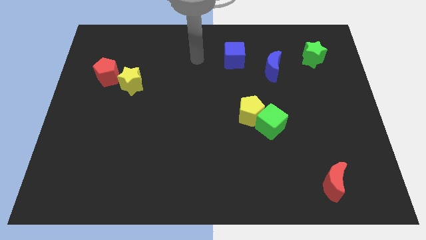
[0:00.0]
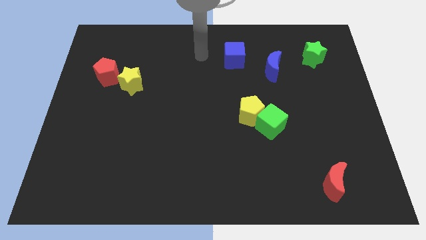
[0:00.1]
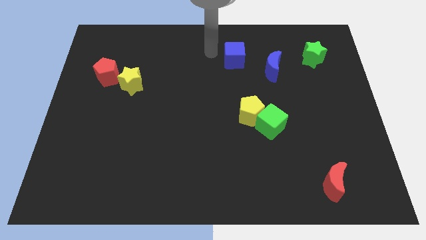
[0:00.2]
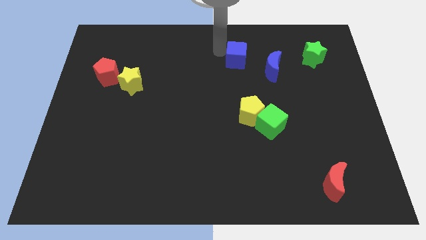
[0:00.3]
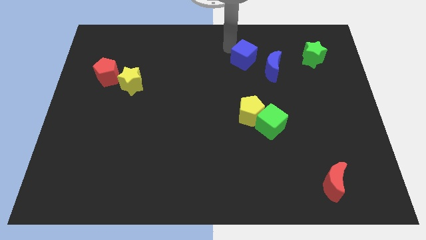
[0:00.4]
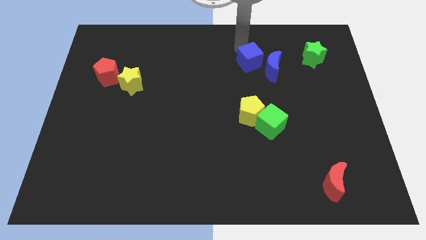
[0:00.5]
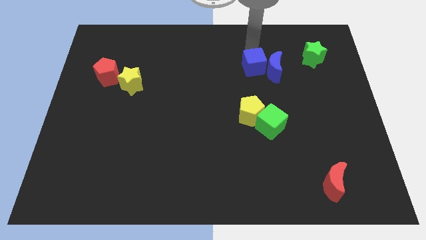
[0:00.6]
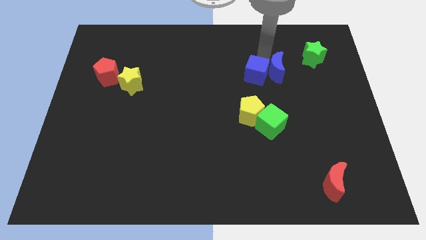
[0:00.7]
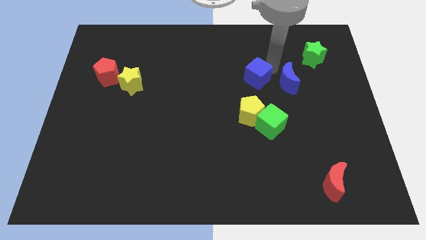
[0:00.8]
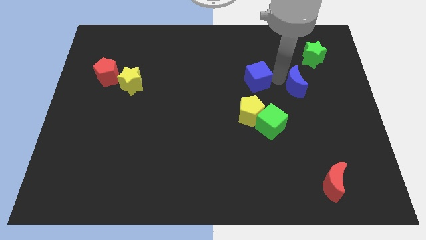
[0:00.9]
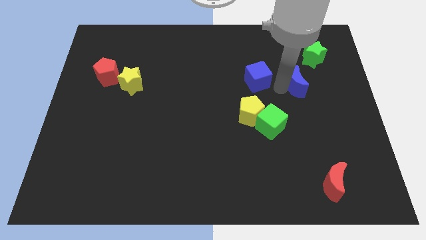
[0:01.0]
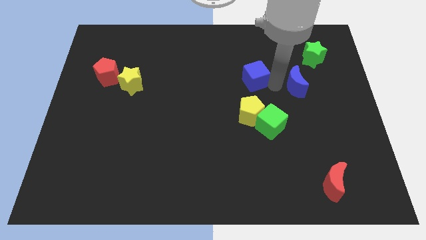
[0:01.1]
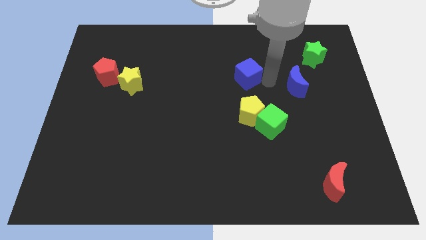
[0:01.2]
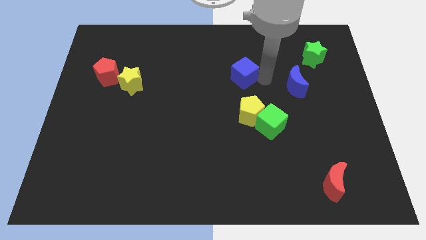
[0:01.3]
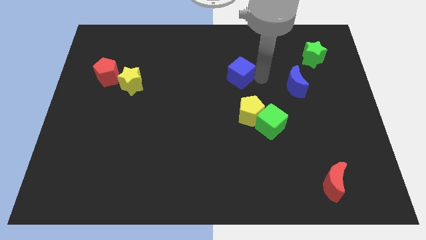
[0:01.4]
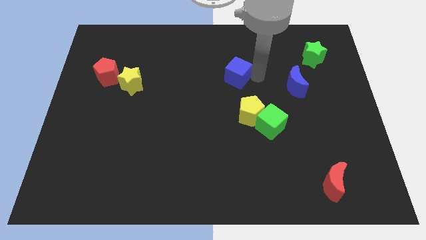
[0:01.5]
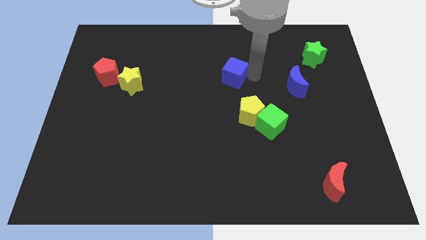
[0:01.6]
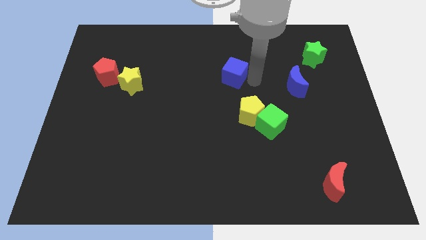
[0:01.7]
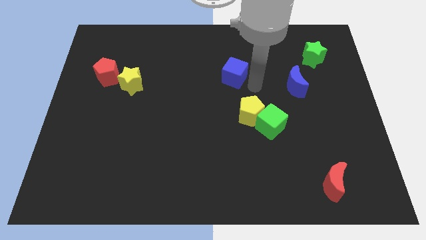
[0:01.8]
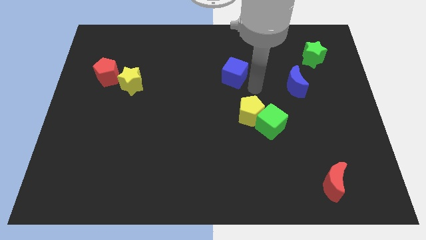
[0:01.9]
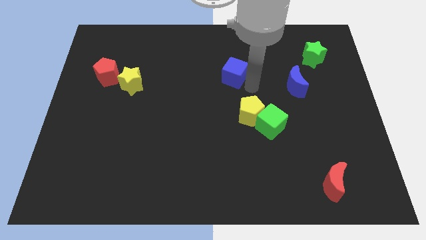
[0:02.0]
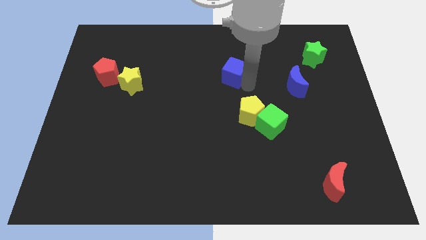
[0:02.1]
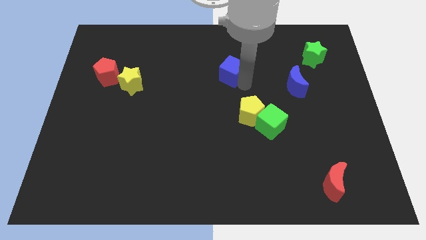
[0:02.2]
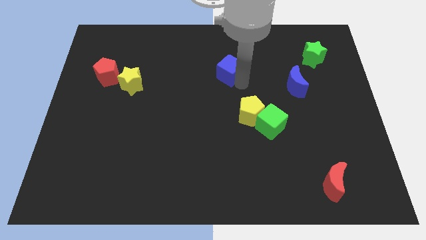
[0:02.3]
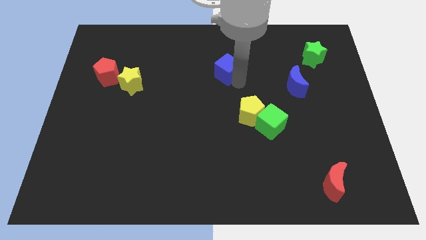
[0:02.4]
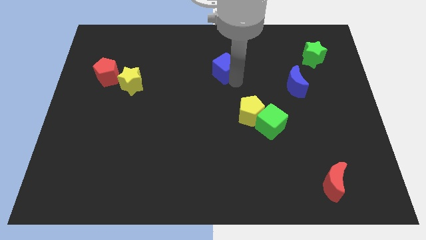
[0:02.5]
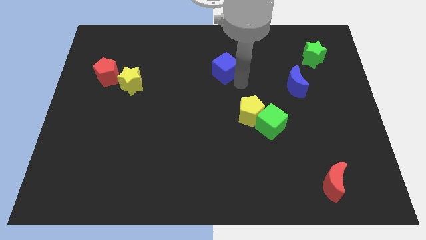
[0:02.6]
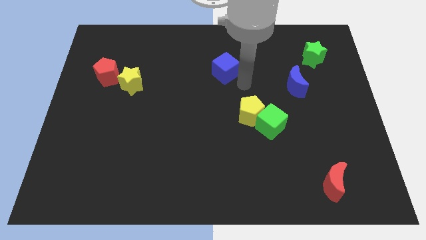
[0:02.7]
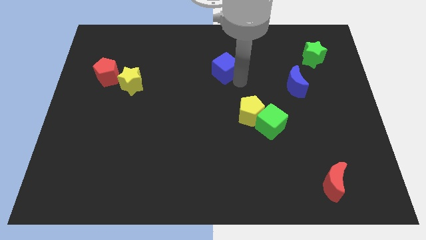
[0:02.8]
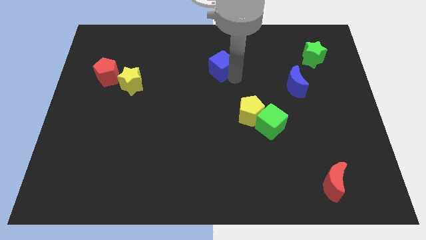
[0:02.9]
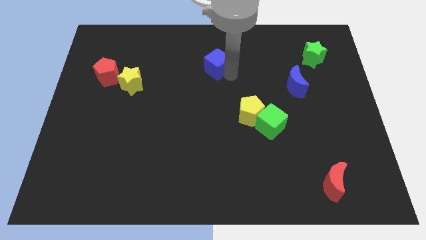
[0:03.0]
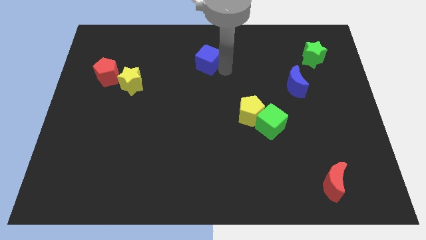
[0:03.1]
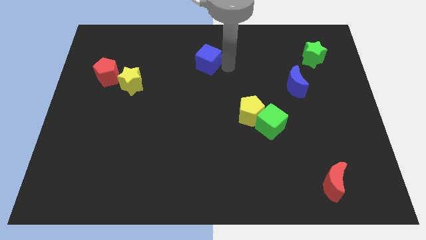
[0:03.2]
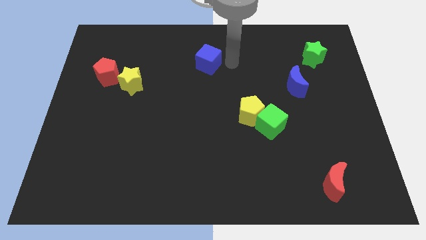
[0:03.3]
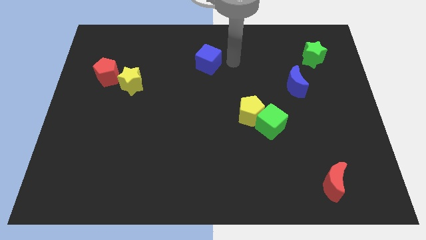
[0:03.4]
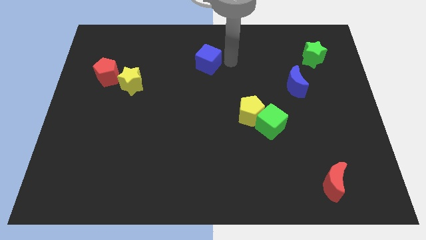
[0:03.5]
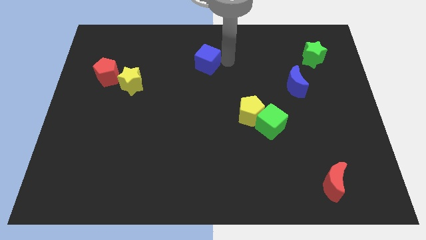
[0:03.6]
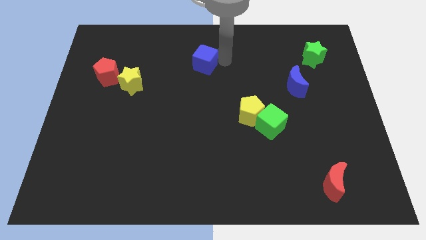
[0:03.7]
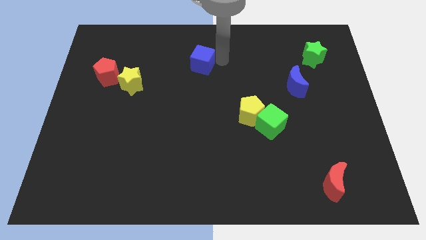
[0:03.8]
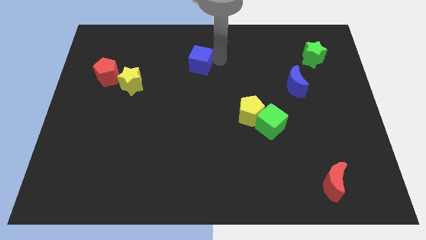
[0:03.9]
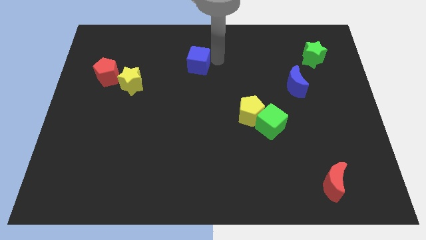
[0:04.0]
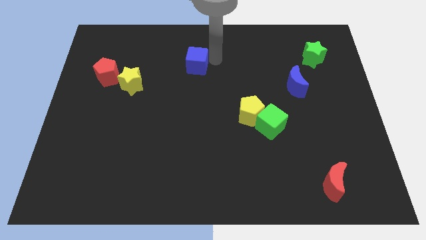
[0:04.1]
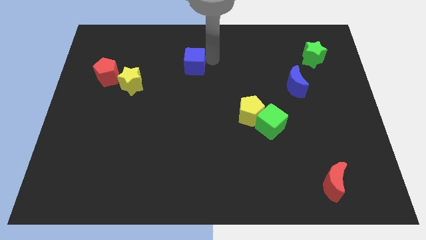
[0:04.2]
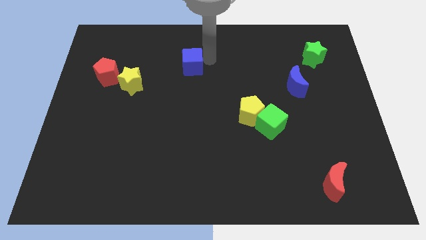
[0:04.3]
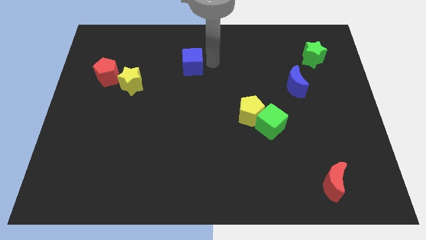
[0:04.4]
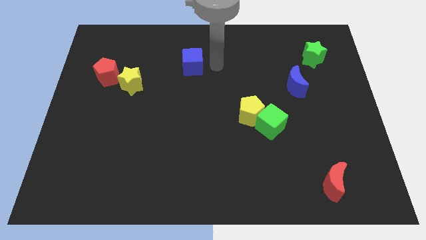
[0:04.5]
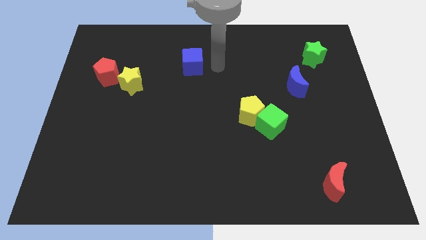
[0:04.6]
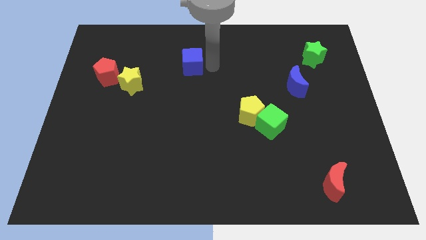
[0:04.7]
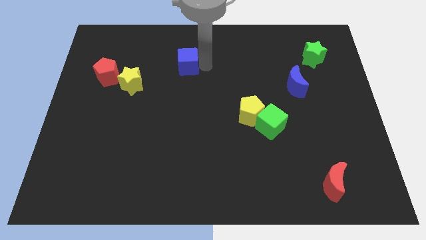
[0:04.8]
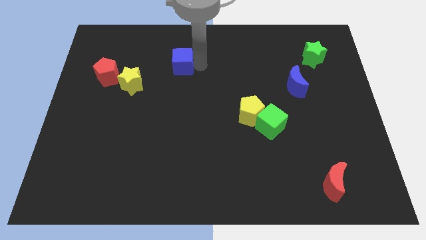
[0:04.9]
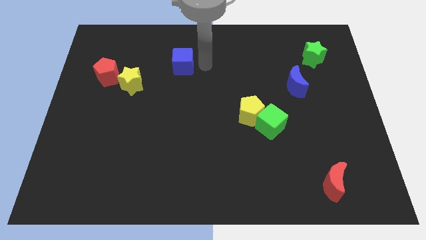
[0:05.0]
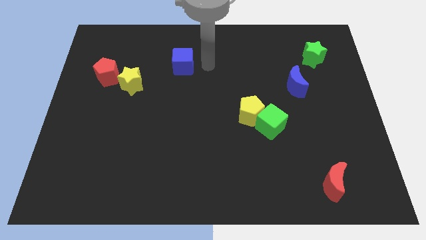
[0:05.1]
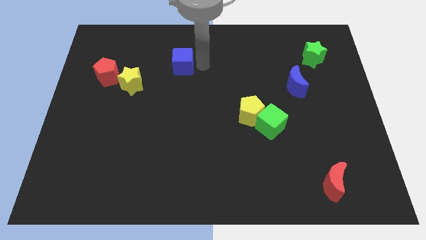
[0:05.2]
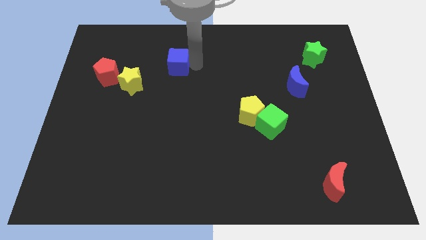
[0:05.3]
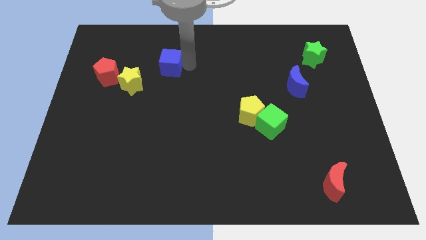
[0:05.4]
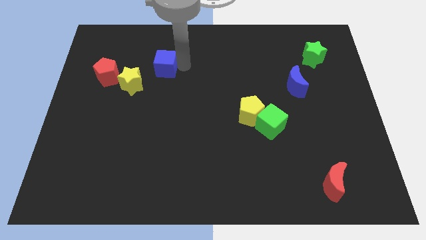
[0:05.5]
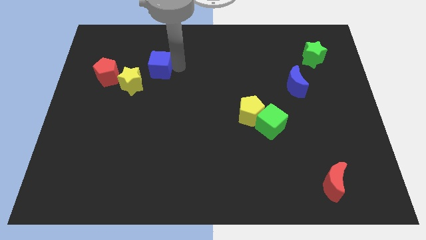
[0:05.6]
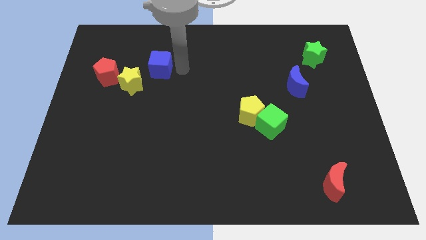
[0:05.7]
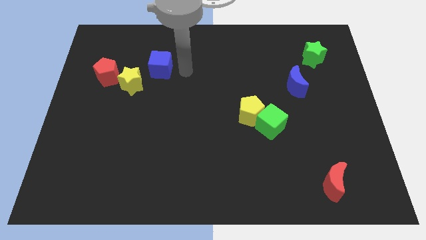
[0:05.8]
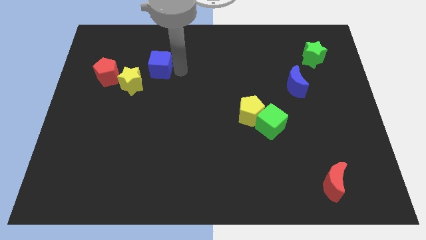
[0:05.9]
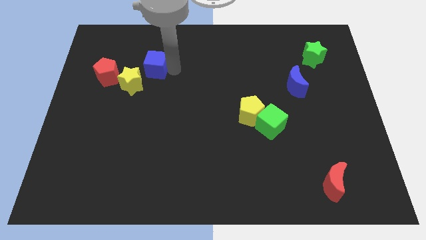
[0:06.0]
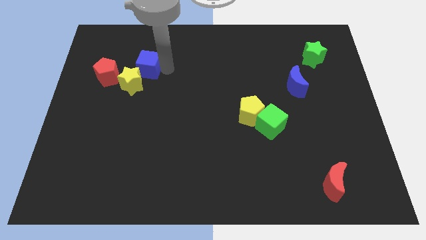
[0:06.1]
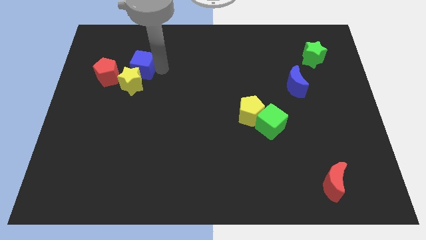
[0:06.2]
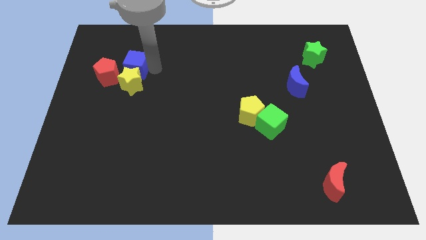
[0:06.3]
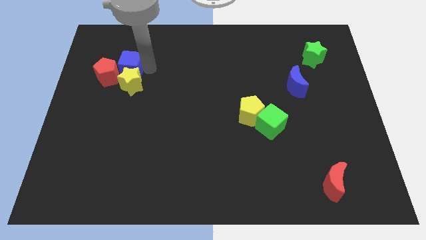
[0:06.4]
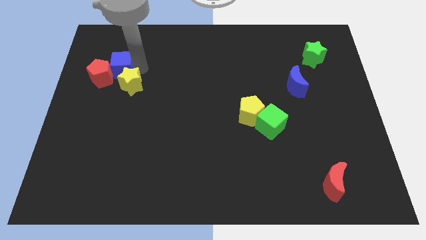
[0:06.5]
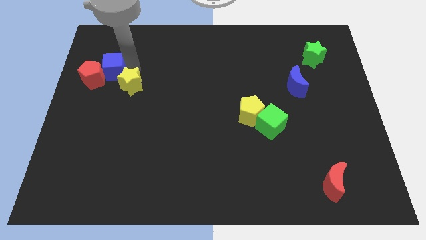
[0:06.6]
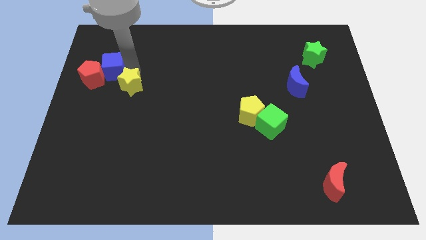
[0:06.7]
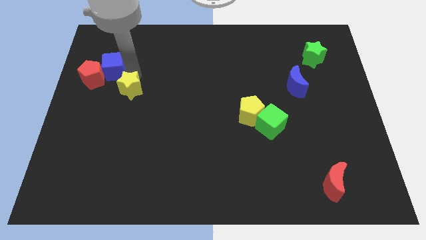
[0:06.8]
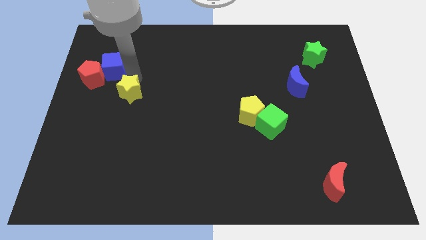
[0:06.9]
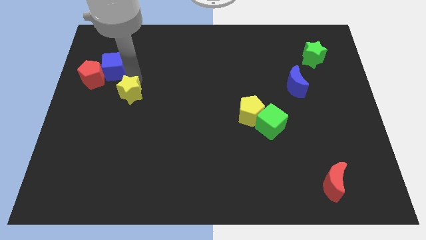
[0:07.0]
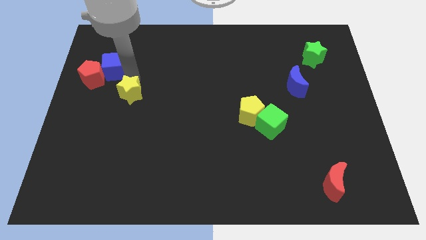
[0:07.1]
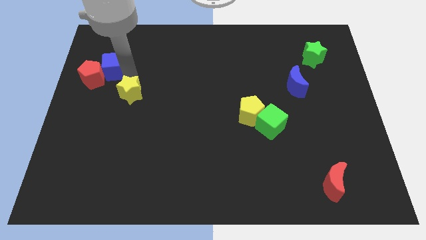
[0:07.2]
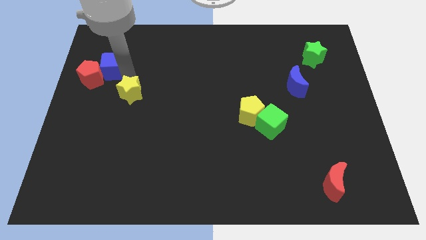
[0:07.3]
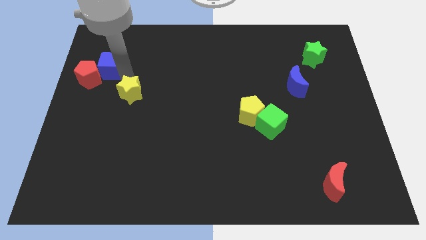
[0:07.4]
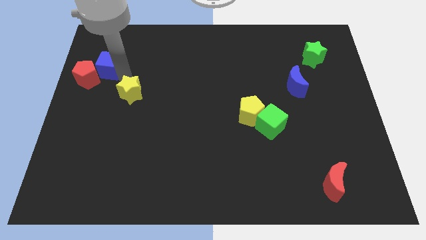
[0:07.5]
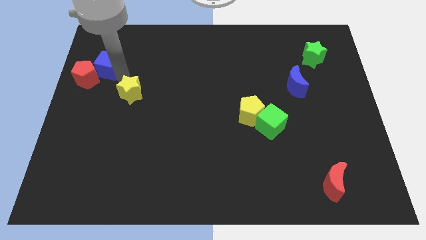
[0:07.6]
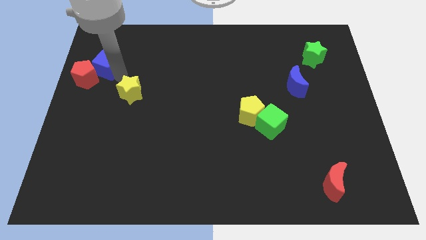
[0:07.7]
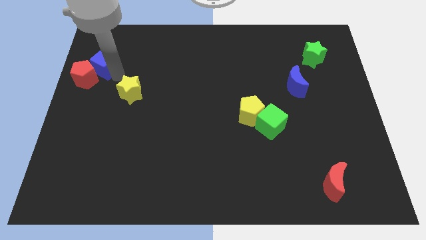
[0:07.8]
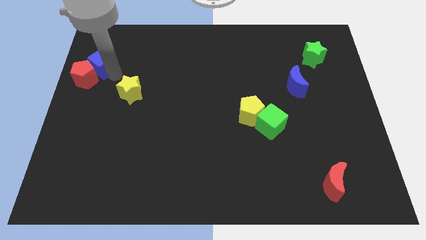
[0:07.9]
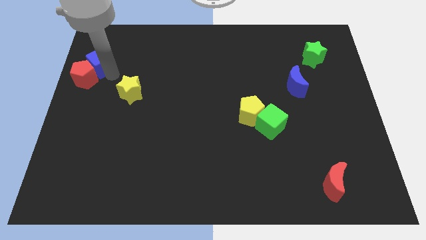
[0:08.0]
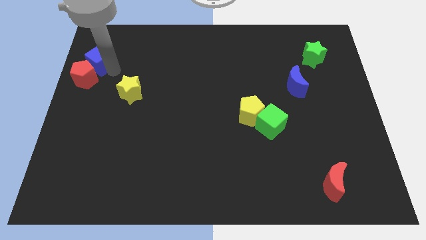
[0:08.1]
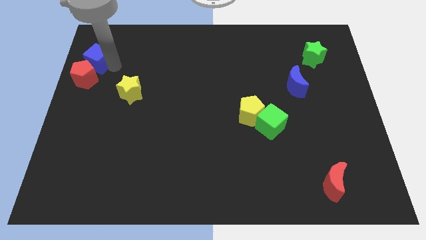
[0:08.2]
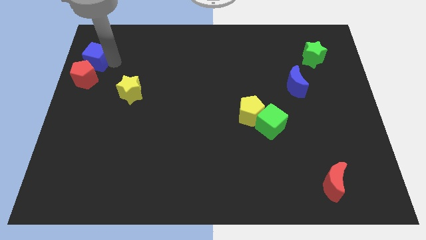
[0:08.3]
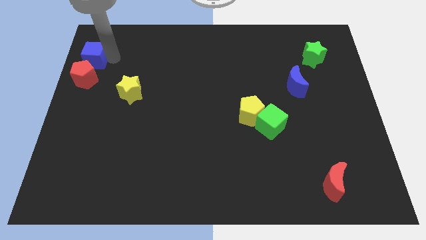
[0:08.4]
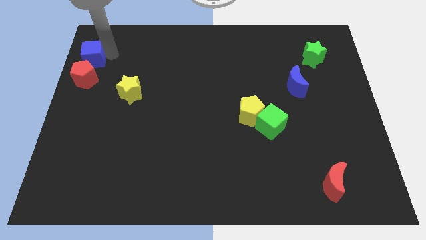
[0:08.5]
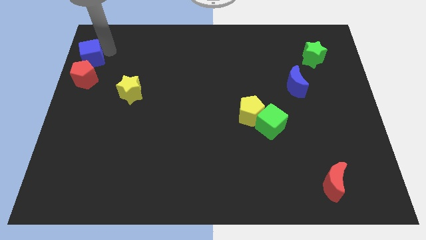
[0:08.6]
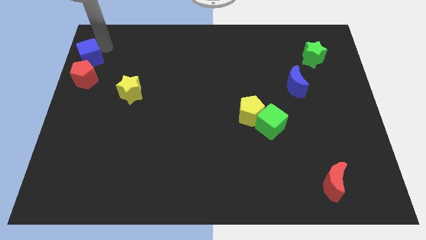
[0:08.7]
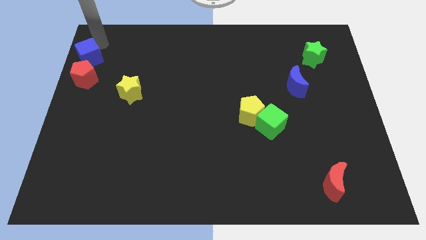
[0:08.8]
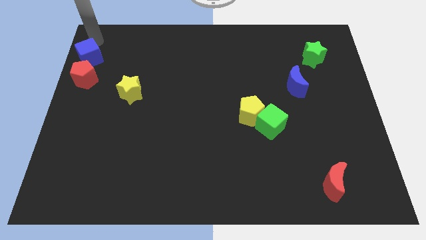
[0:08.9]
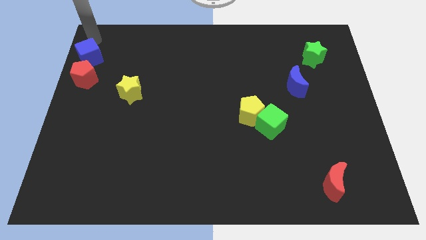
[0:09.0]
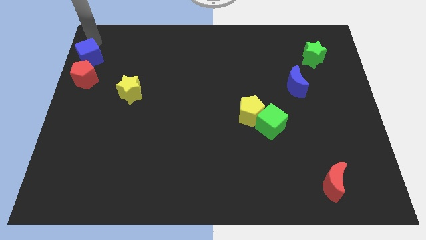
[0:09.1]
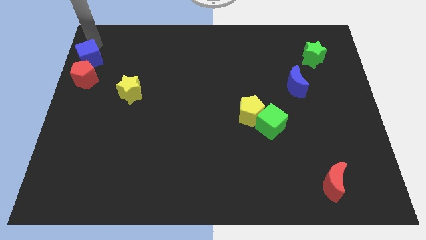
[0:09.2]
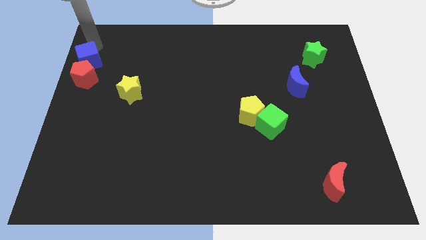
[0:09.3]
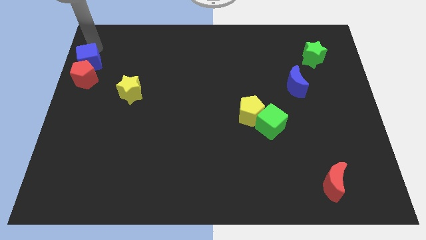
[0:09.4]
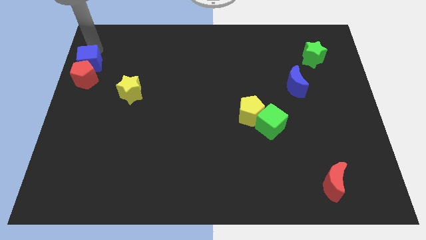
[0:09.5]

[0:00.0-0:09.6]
put the blue cube to the left side
